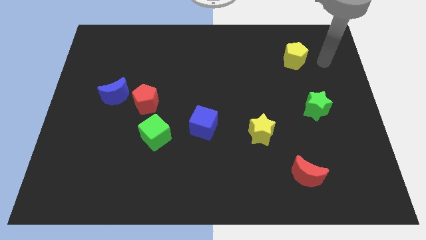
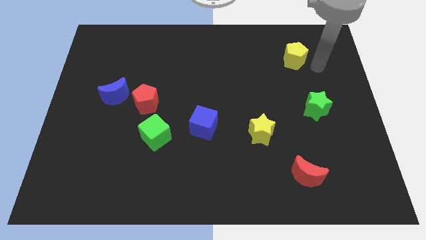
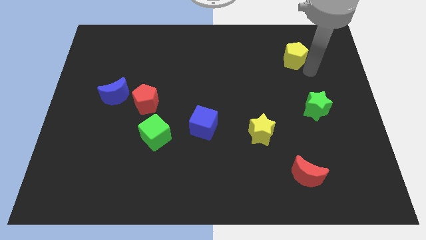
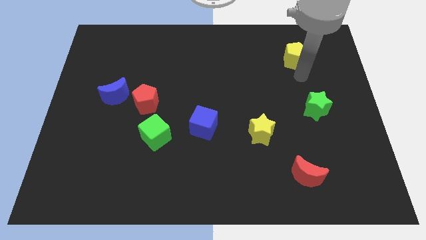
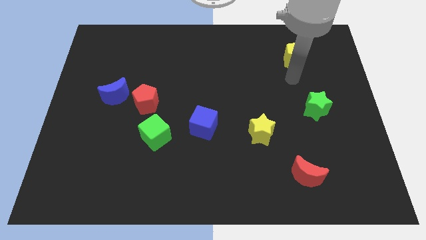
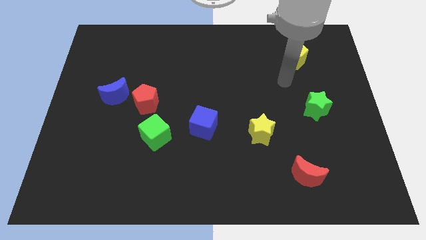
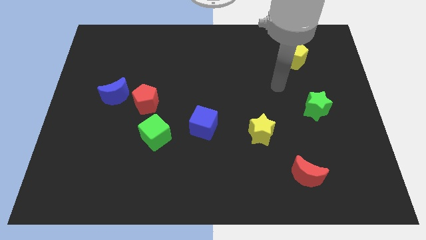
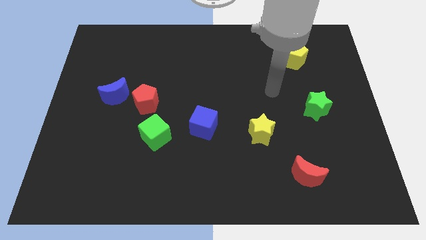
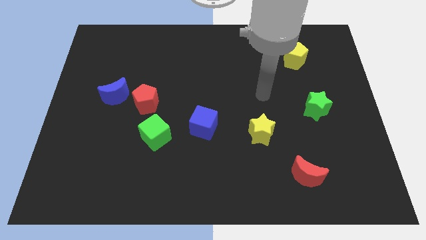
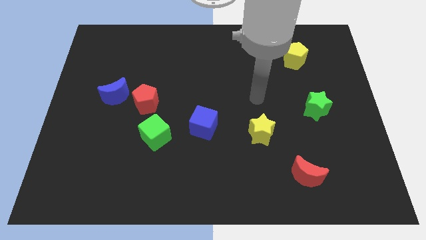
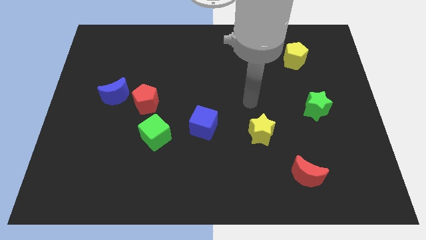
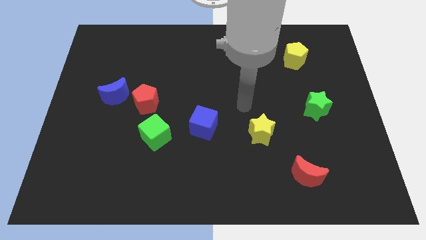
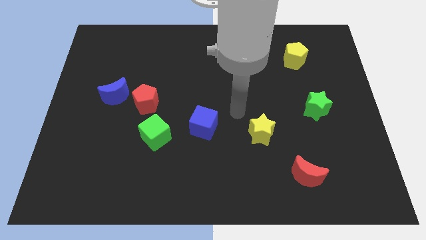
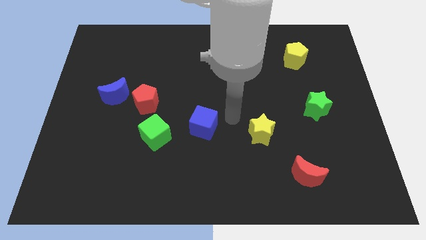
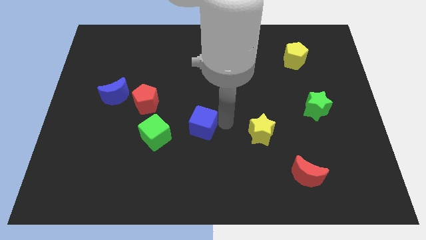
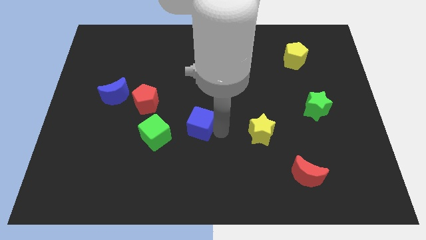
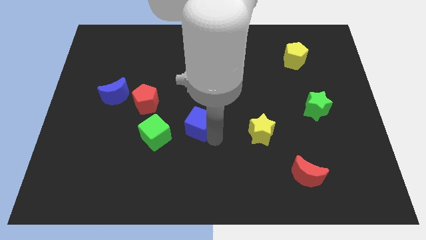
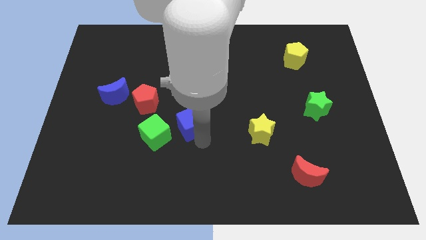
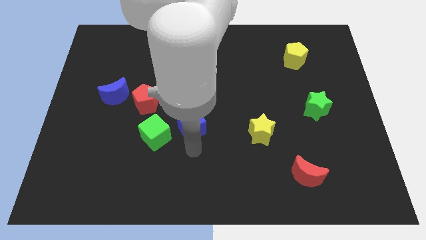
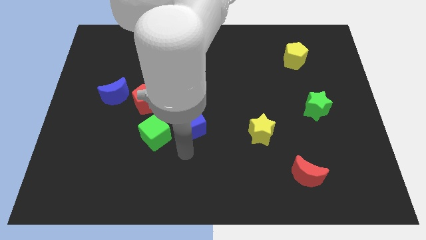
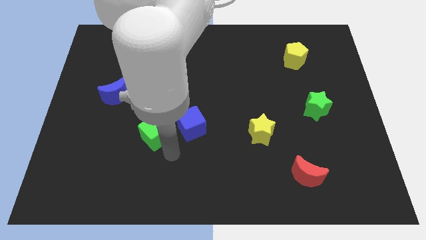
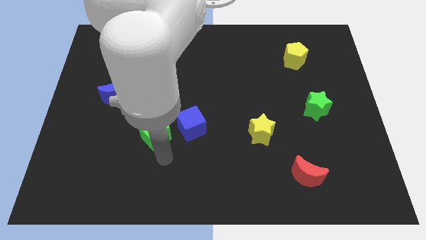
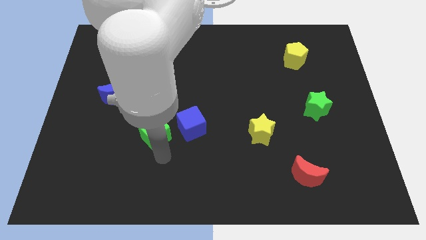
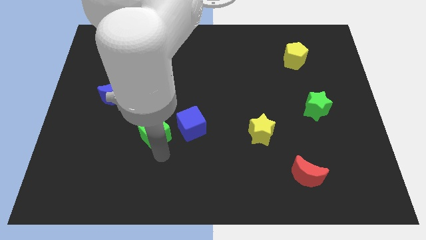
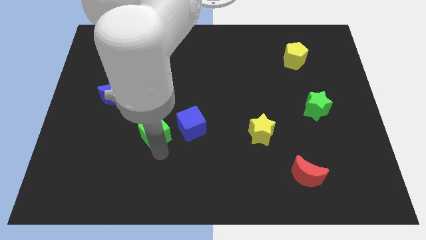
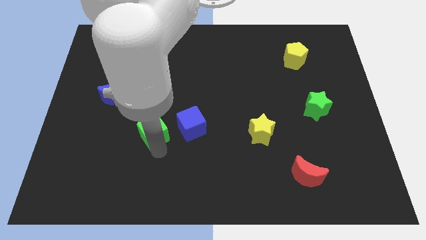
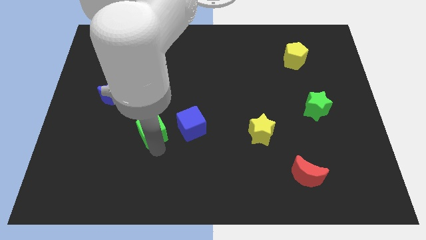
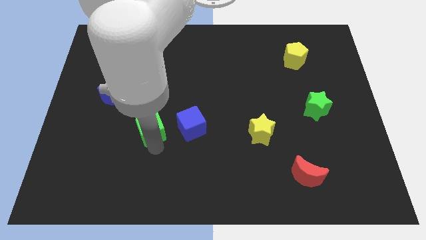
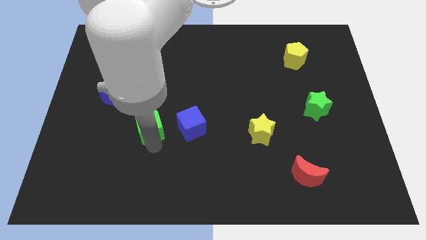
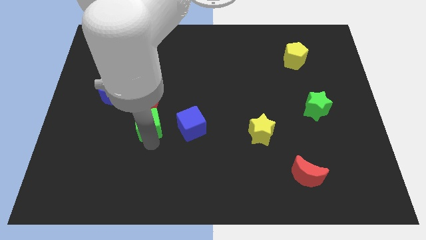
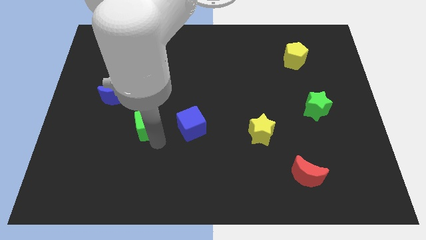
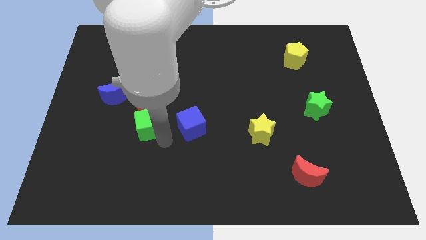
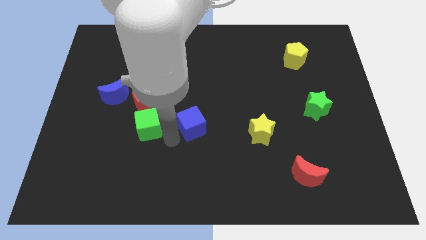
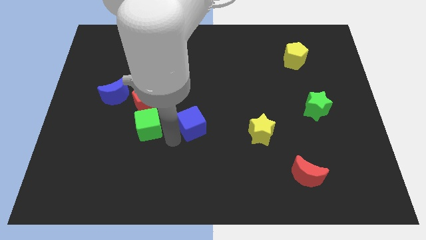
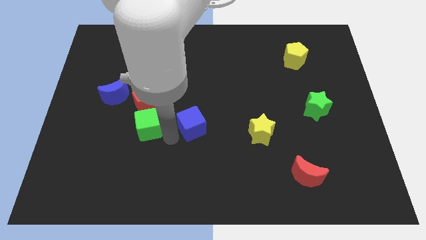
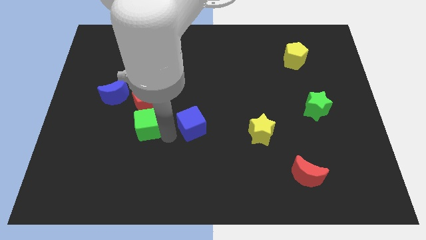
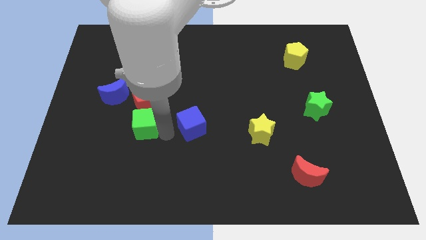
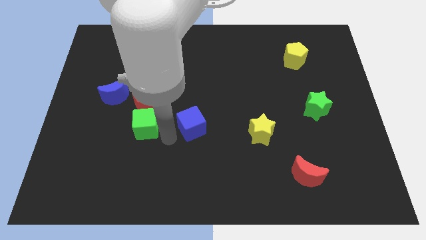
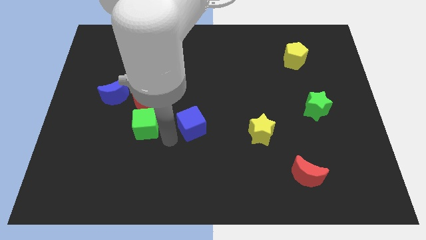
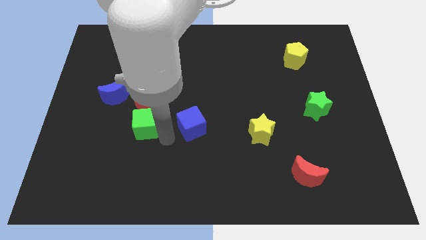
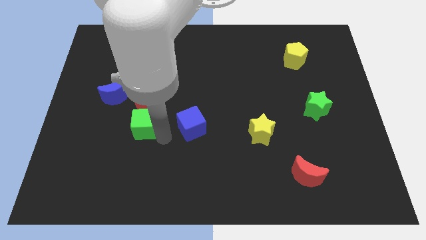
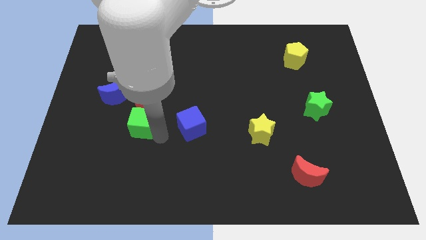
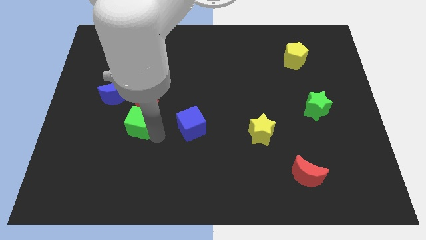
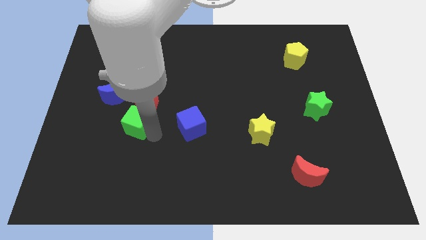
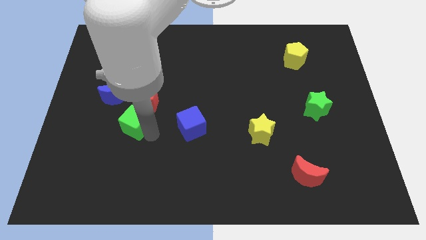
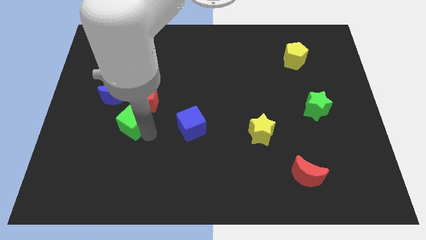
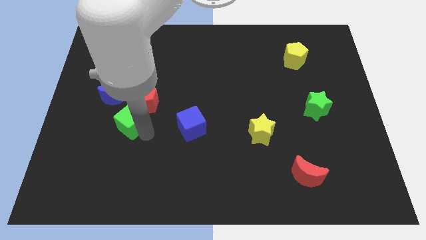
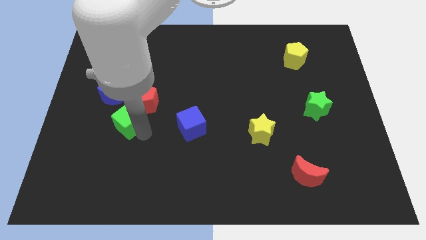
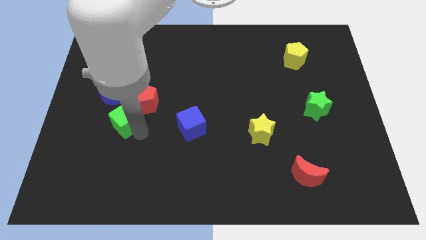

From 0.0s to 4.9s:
slightly move the green cube up and left diagonally

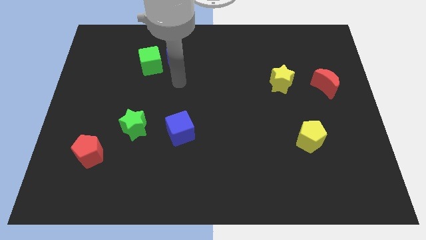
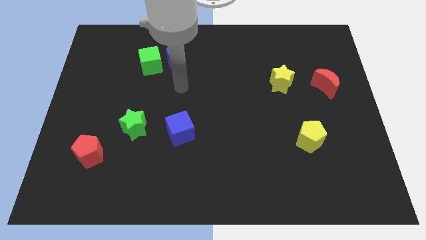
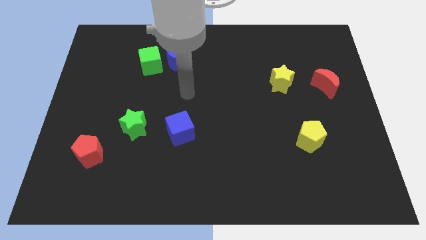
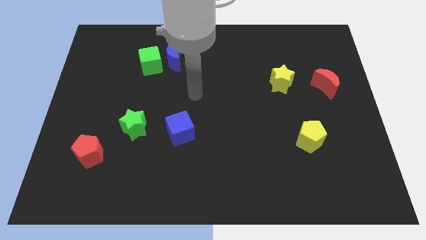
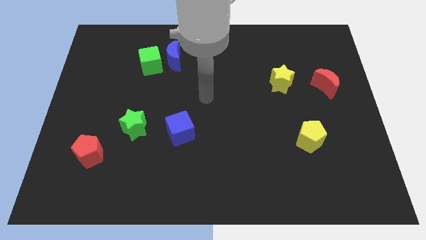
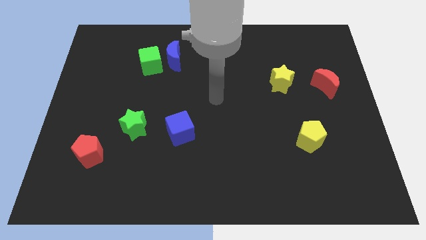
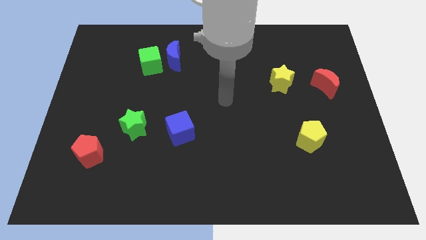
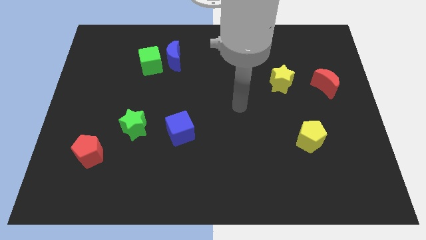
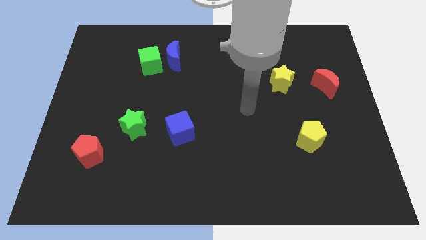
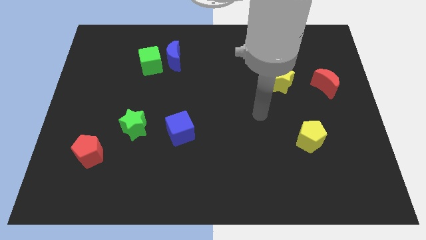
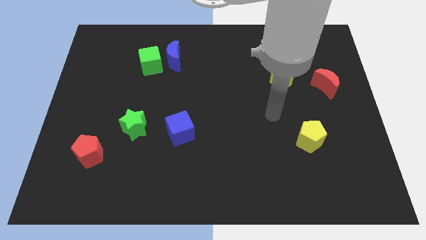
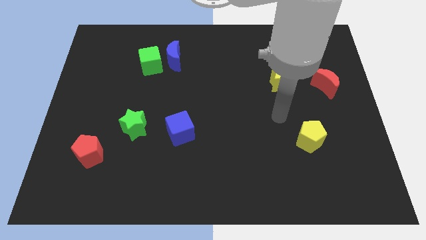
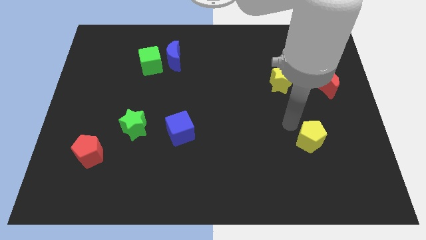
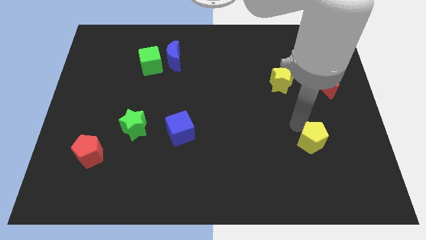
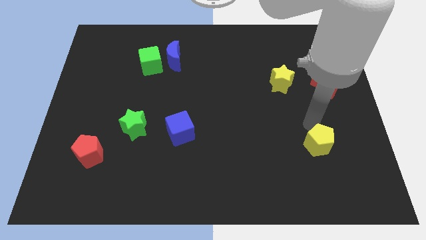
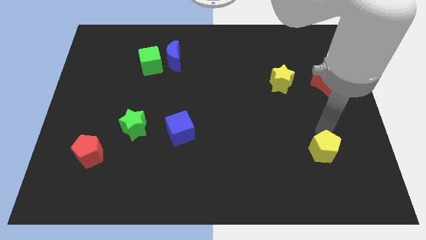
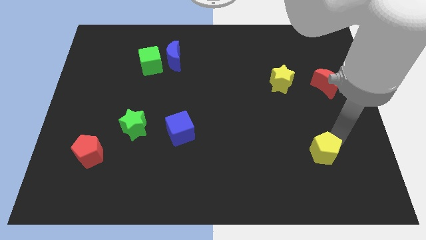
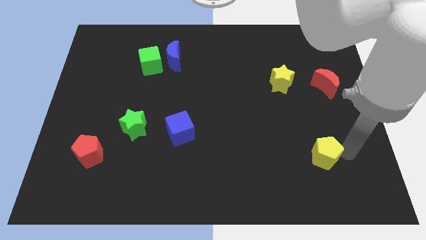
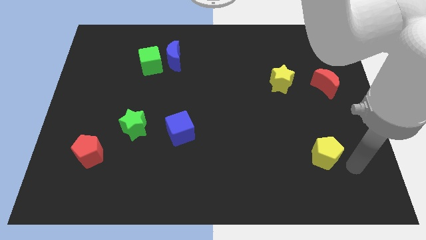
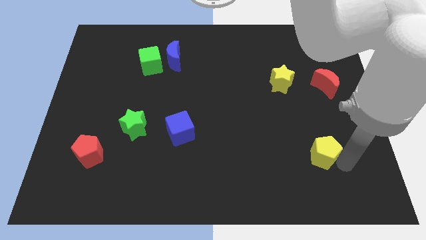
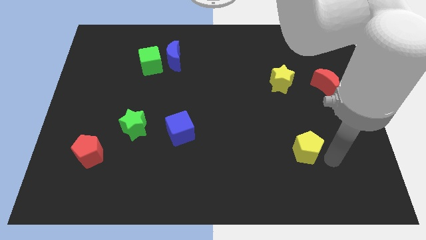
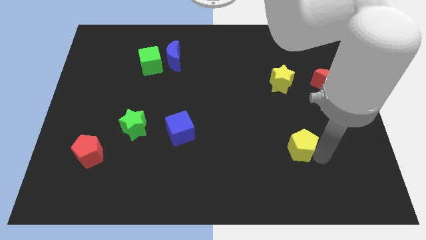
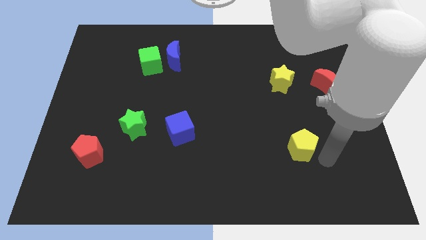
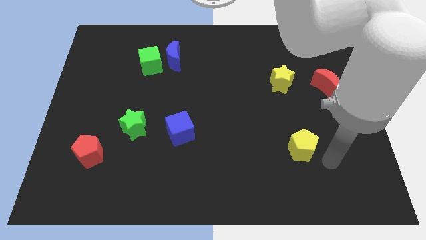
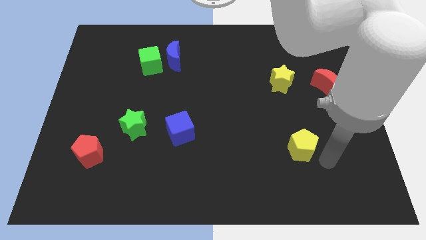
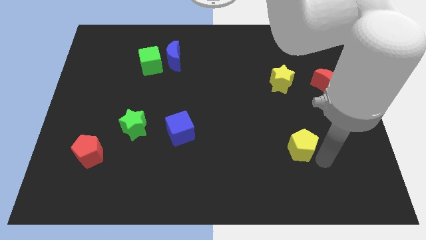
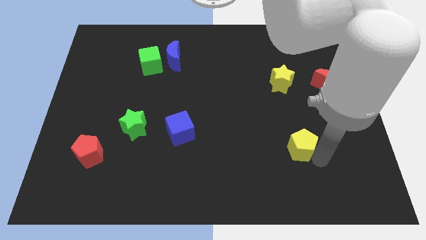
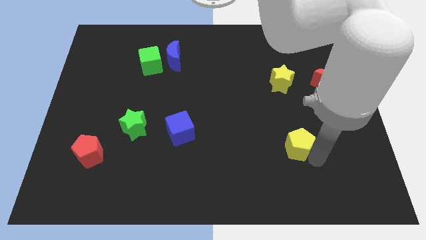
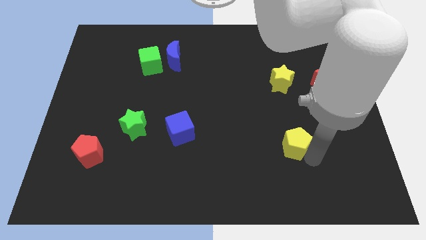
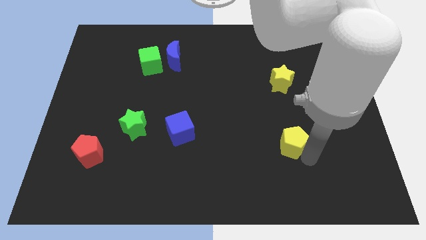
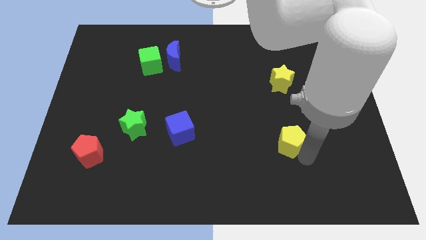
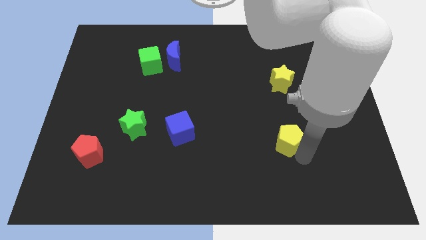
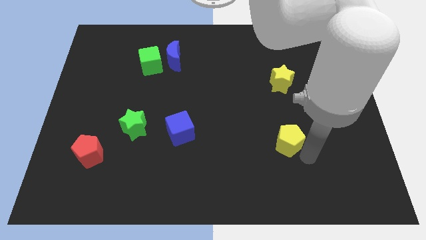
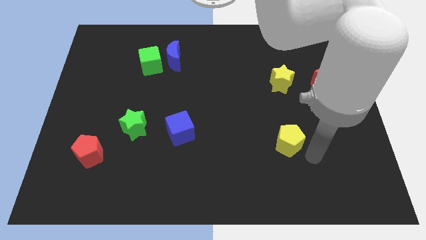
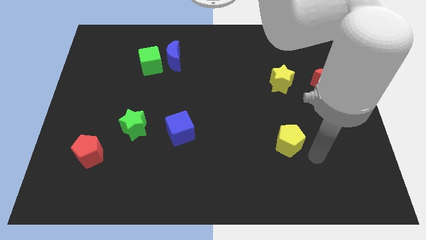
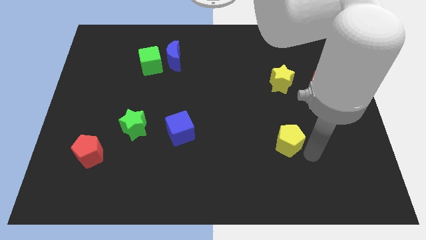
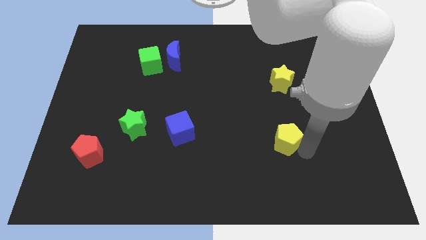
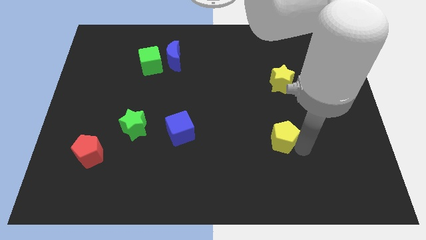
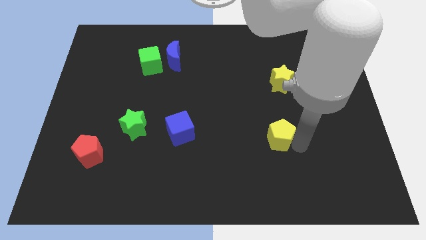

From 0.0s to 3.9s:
move the yellow pentagon left a little bit
